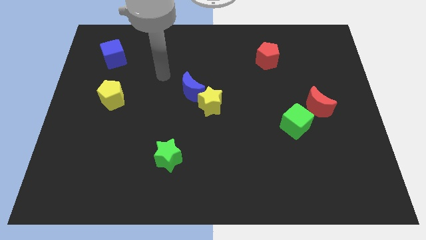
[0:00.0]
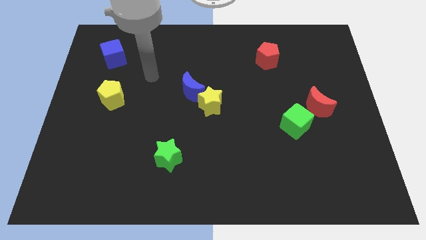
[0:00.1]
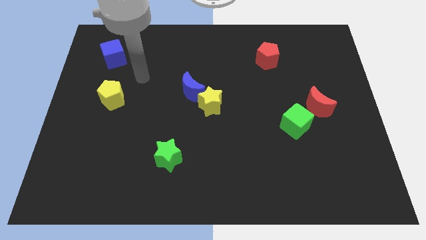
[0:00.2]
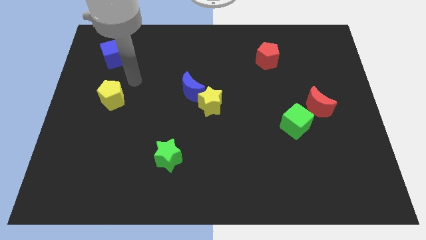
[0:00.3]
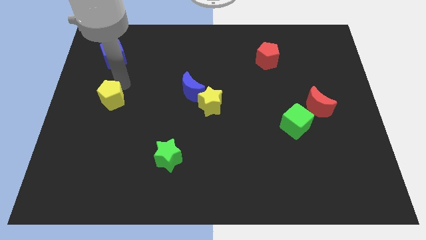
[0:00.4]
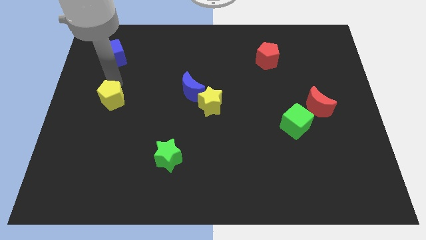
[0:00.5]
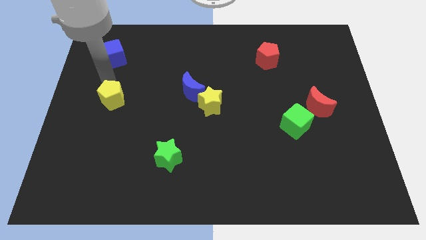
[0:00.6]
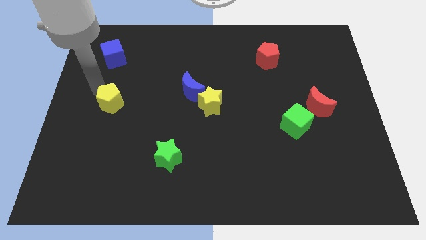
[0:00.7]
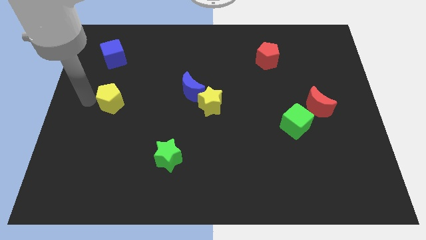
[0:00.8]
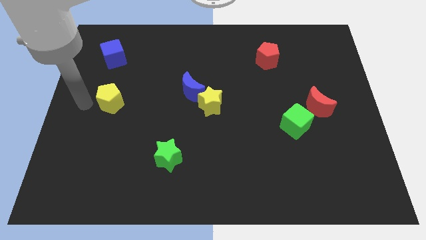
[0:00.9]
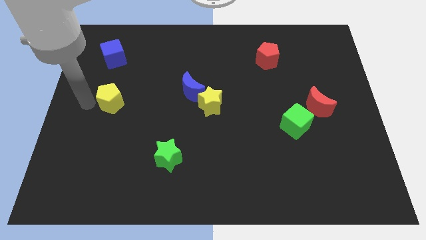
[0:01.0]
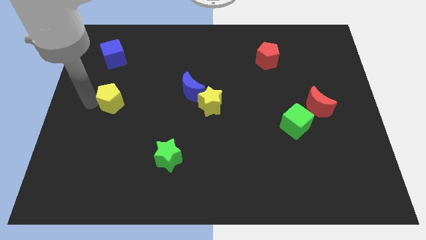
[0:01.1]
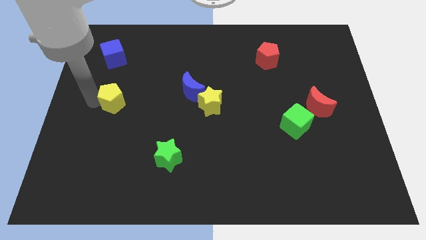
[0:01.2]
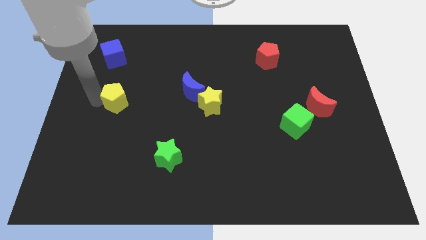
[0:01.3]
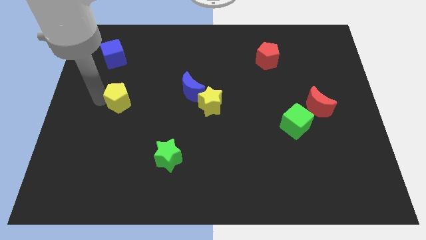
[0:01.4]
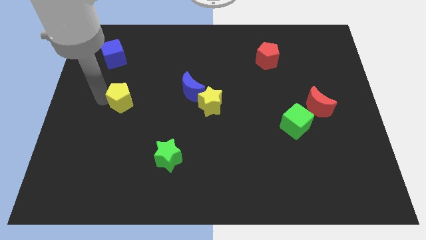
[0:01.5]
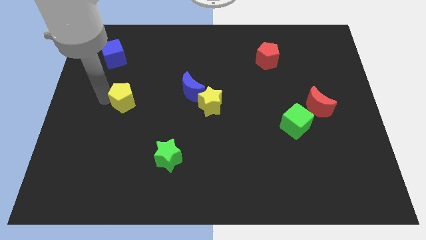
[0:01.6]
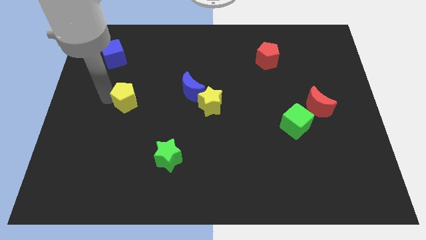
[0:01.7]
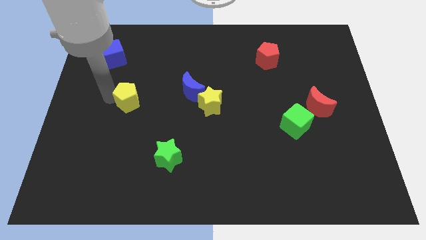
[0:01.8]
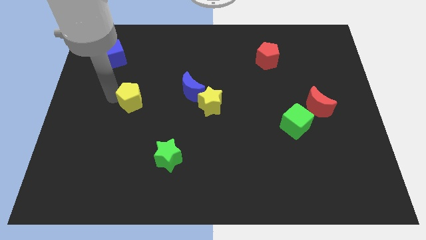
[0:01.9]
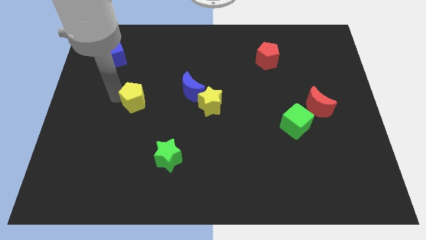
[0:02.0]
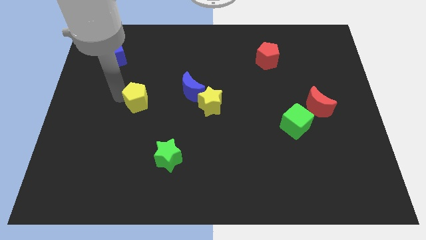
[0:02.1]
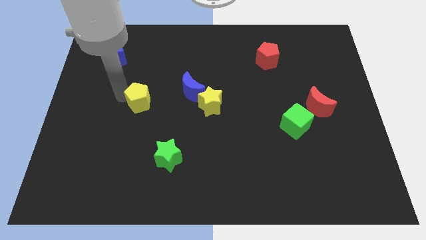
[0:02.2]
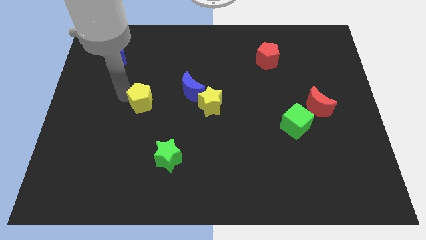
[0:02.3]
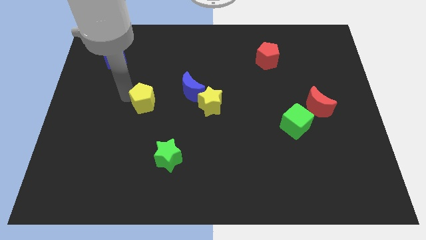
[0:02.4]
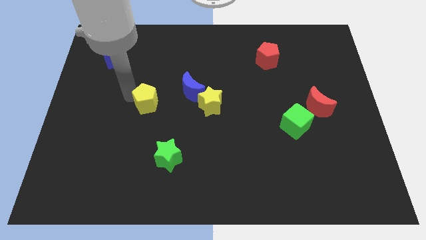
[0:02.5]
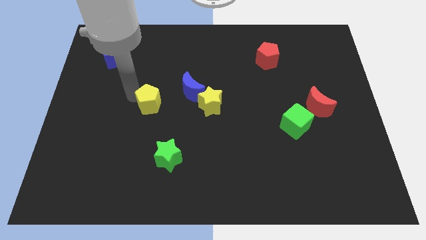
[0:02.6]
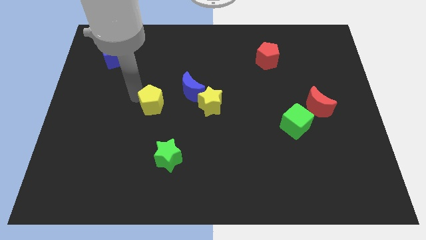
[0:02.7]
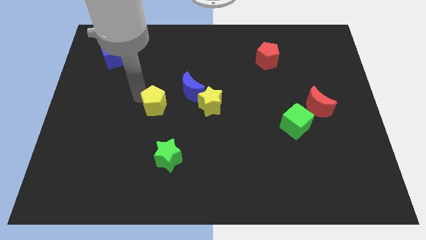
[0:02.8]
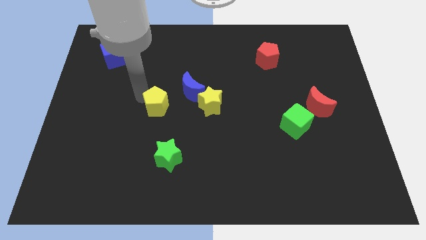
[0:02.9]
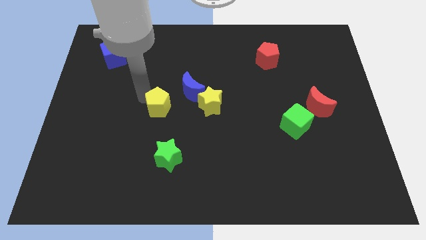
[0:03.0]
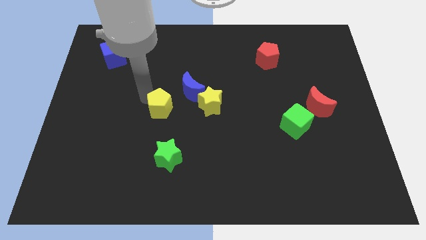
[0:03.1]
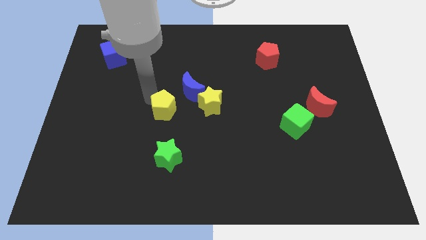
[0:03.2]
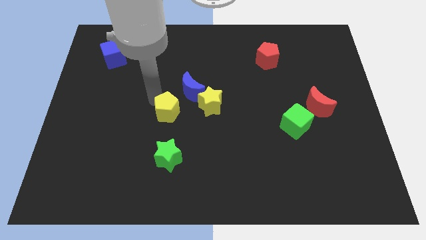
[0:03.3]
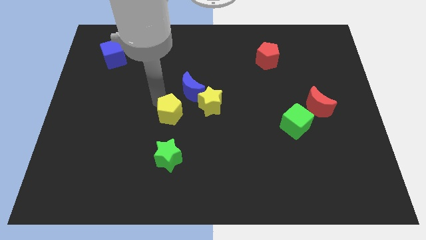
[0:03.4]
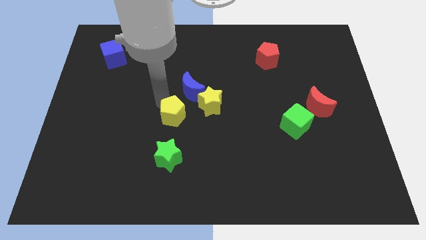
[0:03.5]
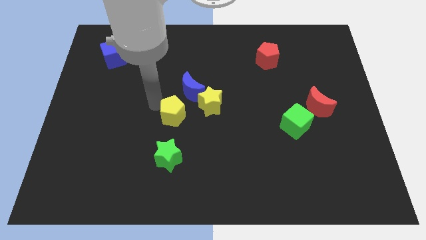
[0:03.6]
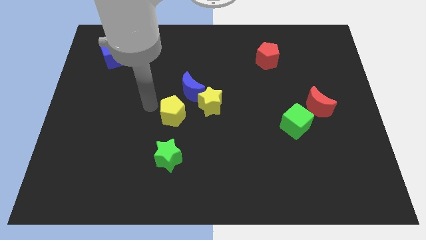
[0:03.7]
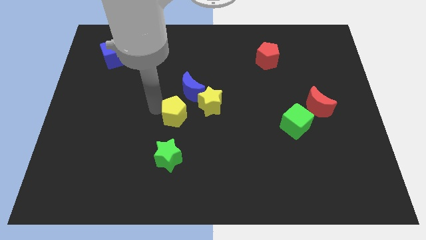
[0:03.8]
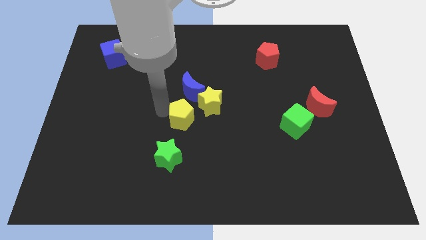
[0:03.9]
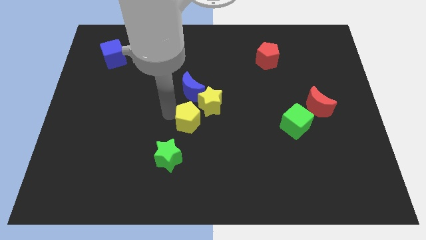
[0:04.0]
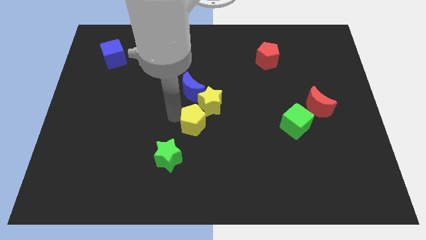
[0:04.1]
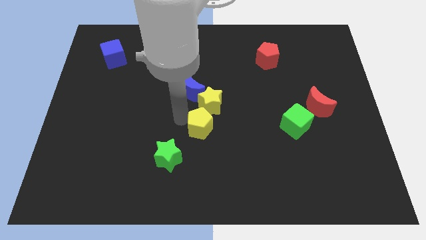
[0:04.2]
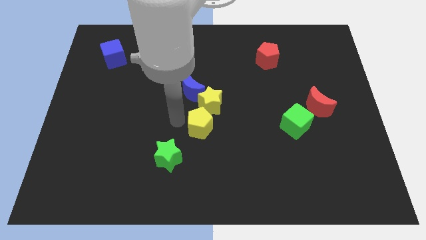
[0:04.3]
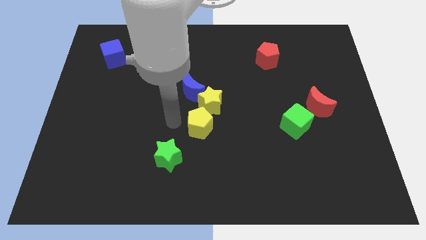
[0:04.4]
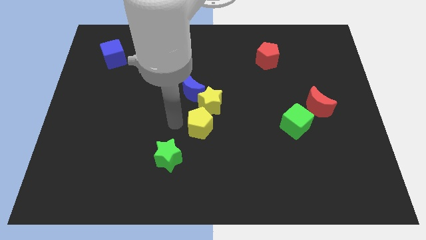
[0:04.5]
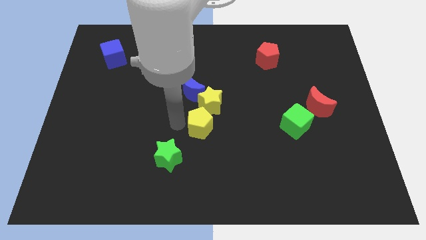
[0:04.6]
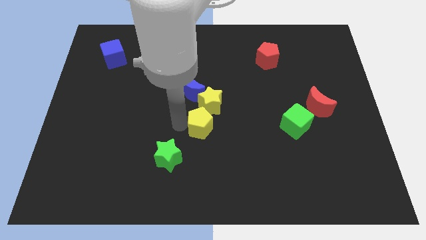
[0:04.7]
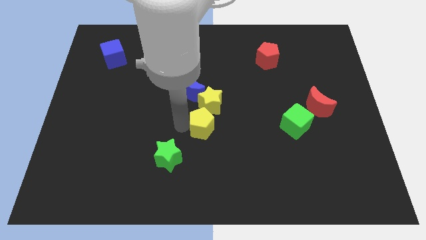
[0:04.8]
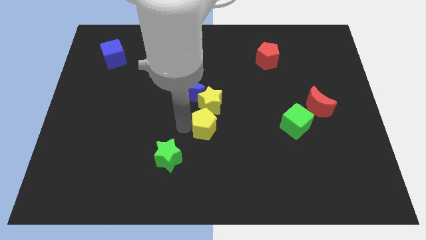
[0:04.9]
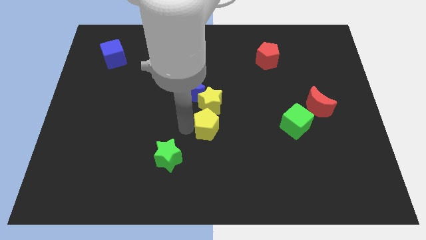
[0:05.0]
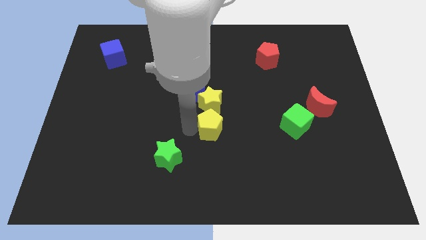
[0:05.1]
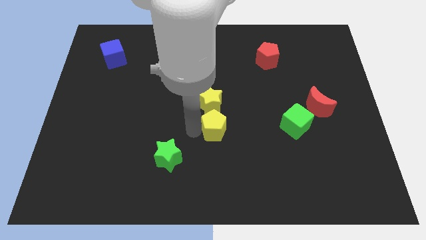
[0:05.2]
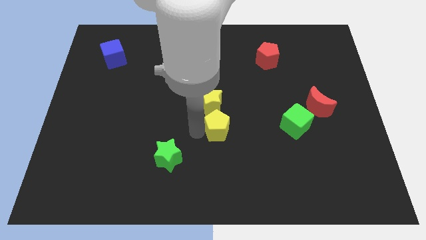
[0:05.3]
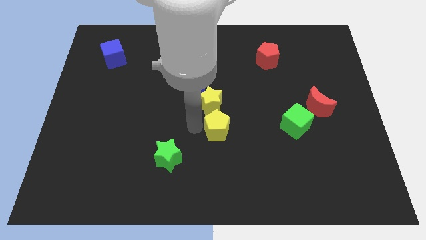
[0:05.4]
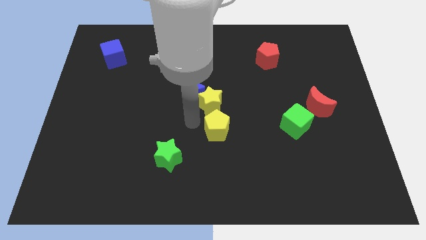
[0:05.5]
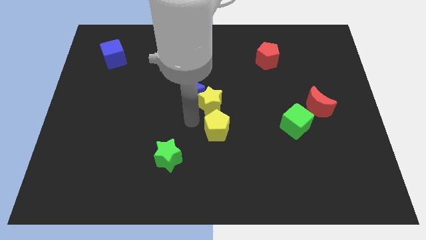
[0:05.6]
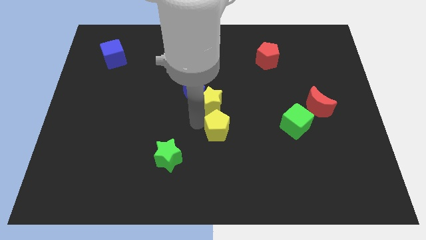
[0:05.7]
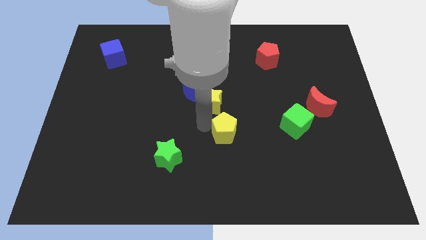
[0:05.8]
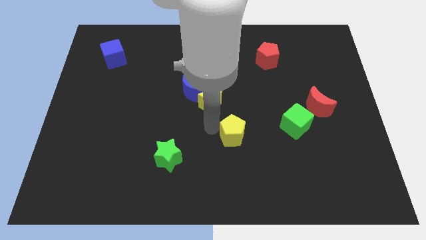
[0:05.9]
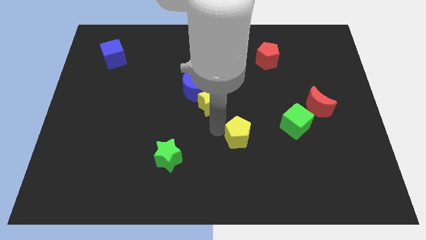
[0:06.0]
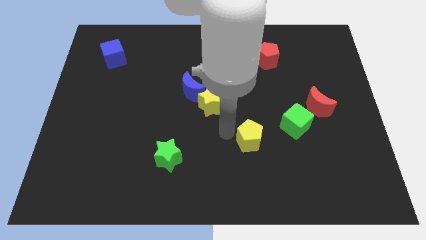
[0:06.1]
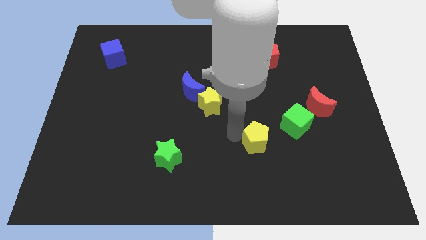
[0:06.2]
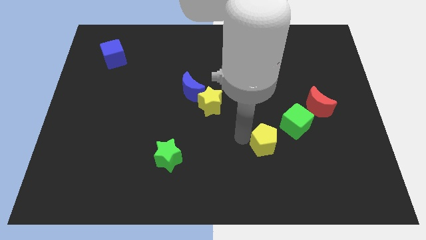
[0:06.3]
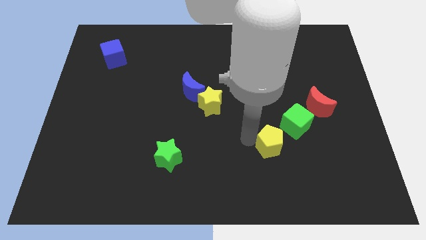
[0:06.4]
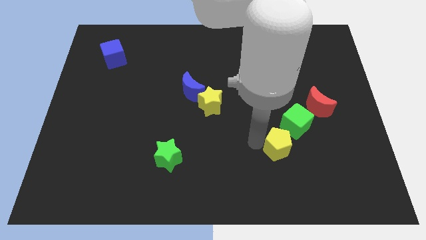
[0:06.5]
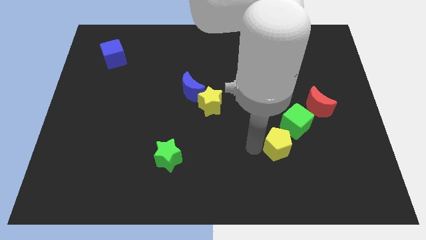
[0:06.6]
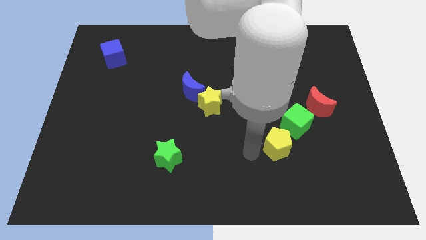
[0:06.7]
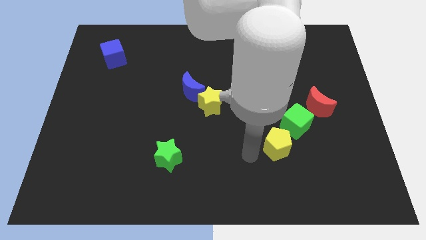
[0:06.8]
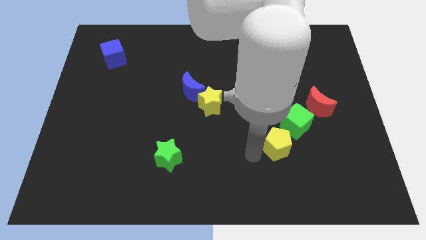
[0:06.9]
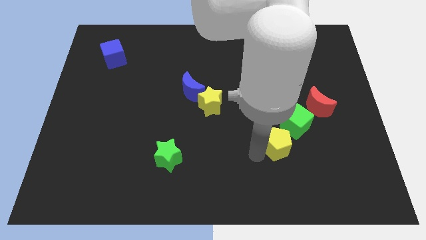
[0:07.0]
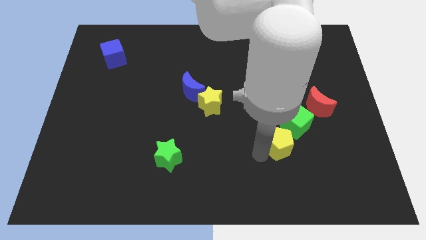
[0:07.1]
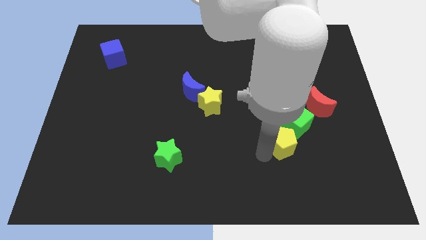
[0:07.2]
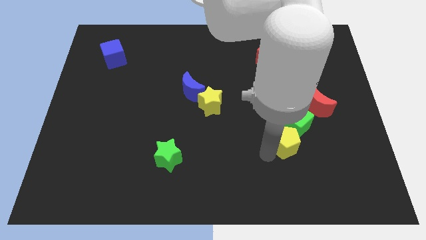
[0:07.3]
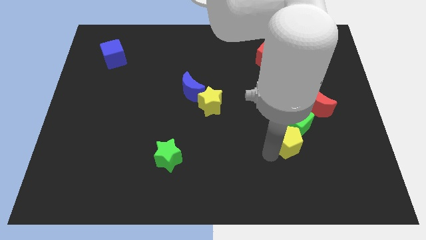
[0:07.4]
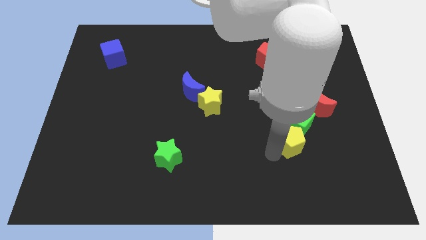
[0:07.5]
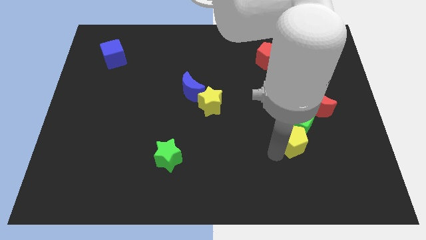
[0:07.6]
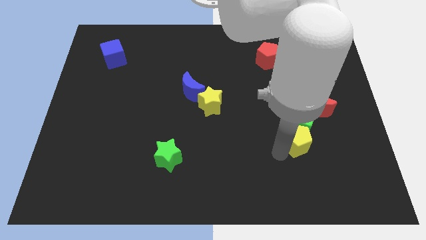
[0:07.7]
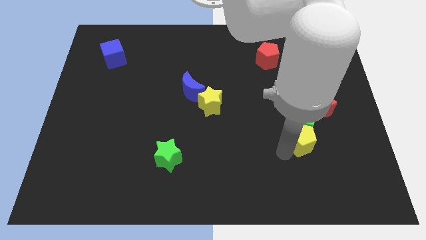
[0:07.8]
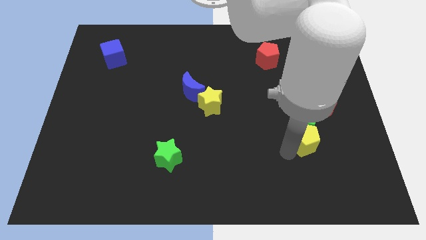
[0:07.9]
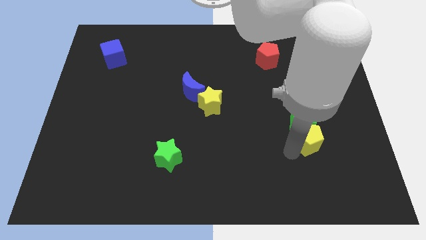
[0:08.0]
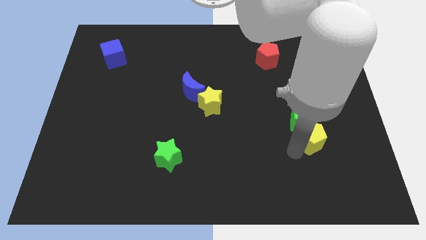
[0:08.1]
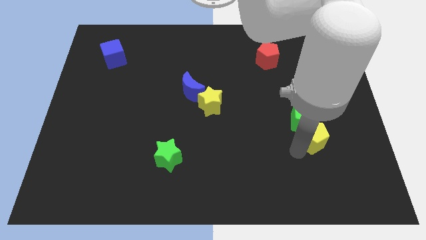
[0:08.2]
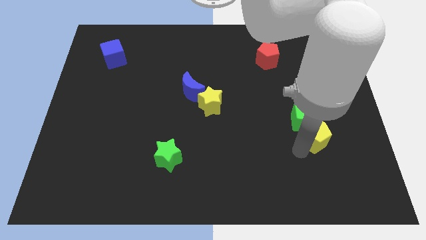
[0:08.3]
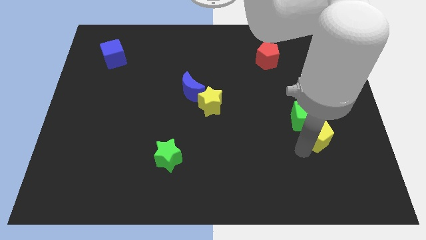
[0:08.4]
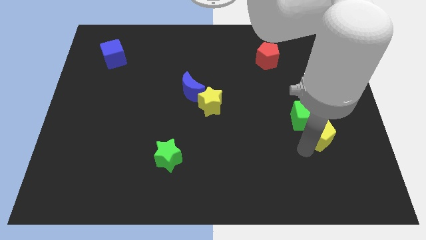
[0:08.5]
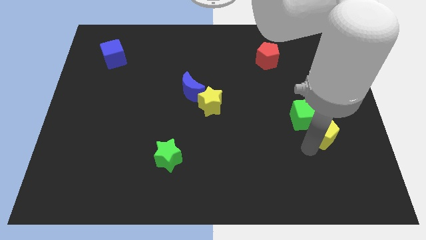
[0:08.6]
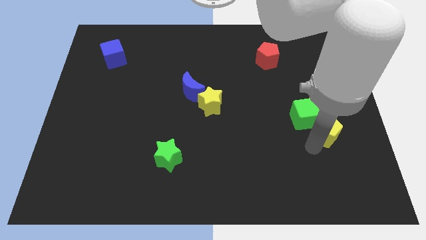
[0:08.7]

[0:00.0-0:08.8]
move the yellow pentagon right of the green cube
